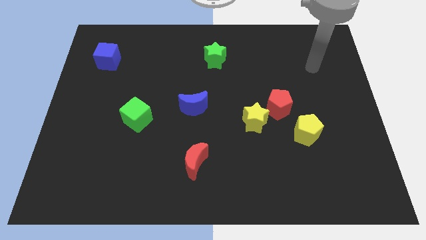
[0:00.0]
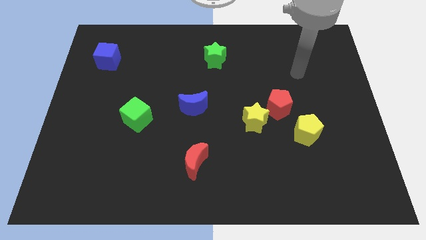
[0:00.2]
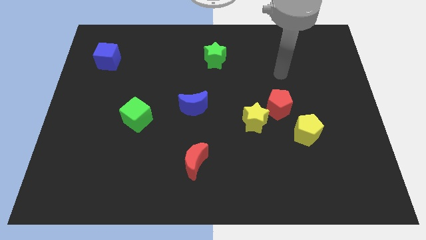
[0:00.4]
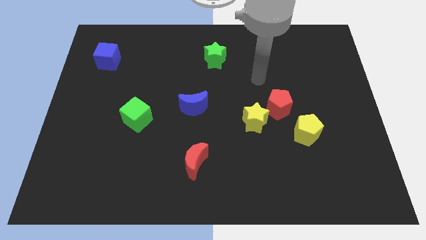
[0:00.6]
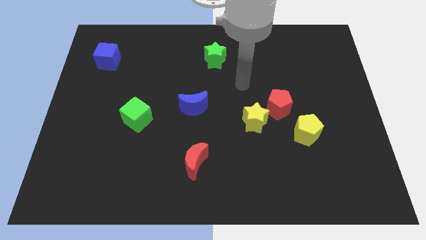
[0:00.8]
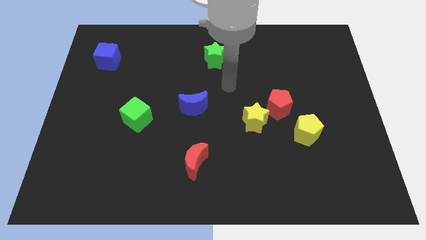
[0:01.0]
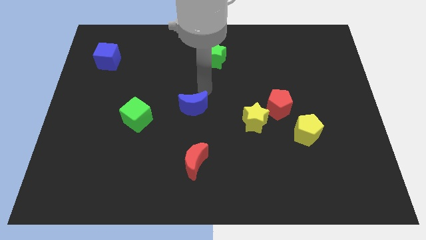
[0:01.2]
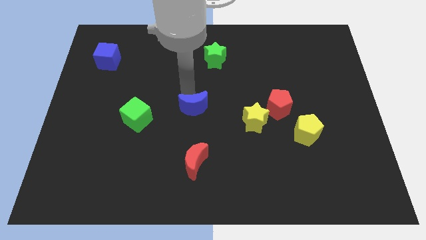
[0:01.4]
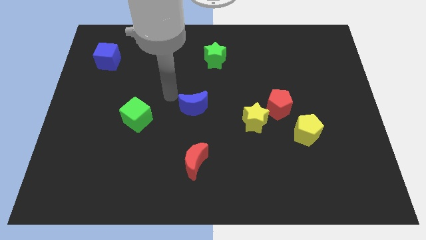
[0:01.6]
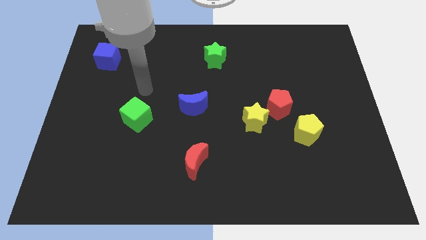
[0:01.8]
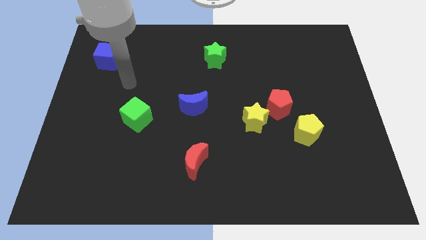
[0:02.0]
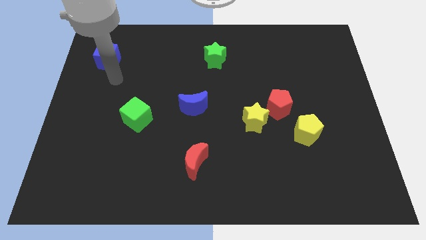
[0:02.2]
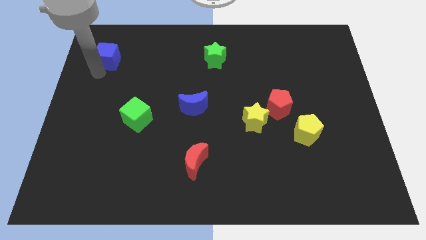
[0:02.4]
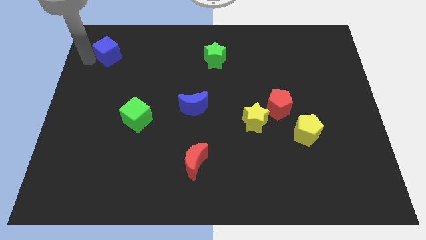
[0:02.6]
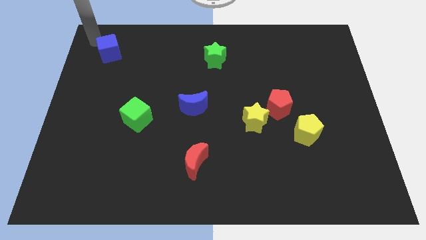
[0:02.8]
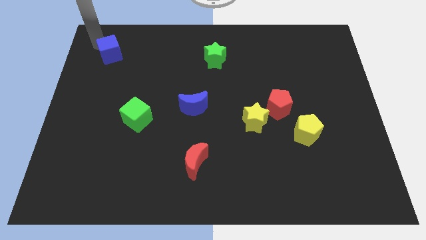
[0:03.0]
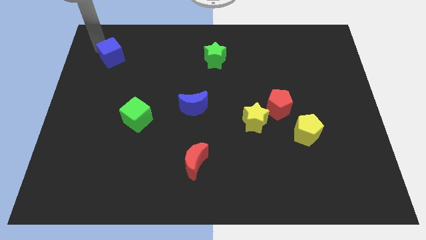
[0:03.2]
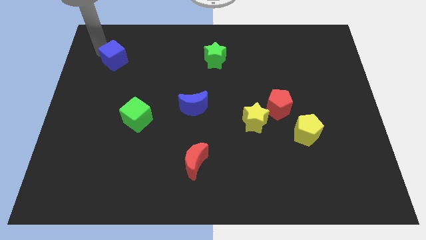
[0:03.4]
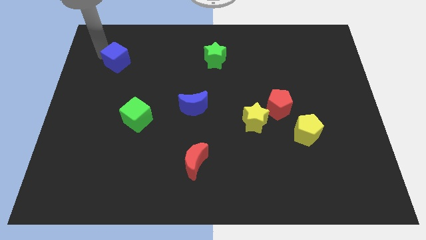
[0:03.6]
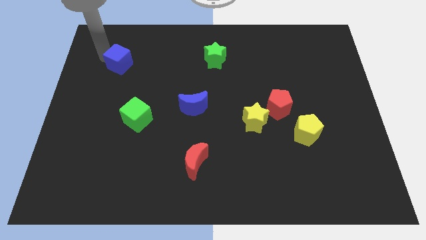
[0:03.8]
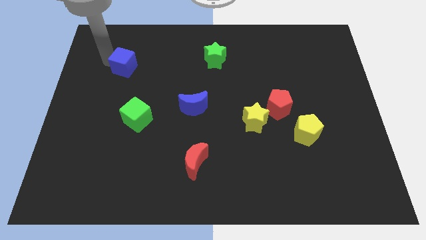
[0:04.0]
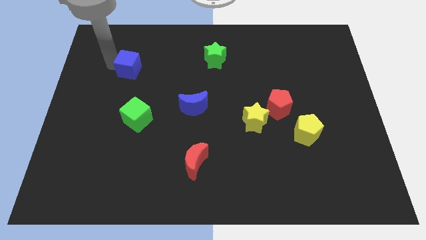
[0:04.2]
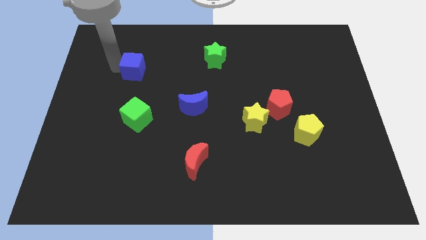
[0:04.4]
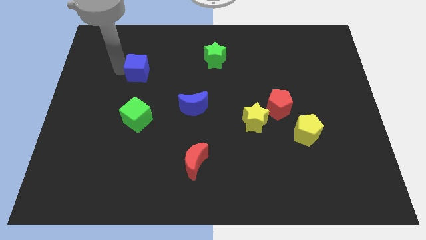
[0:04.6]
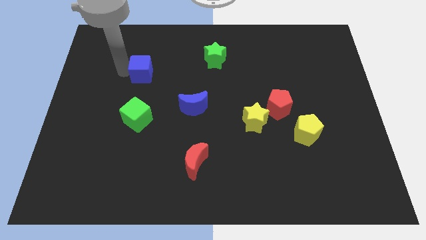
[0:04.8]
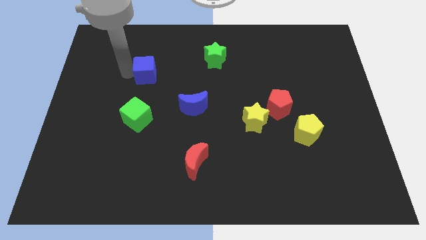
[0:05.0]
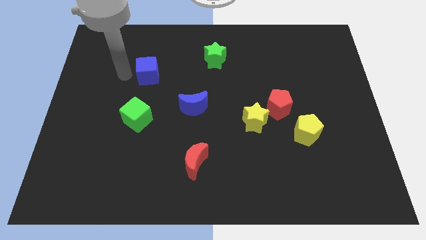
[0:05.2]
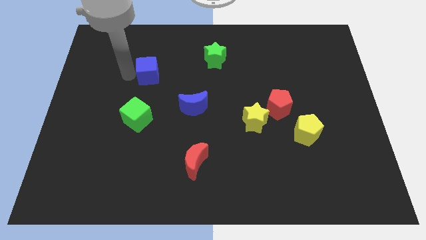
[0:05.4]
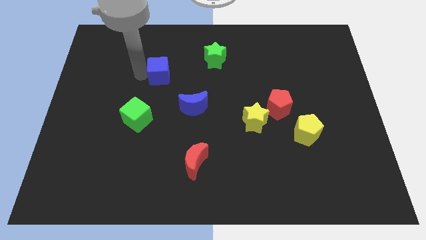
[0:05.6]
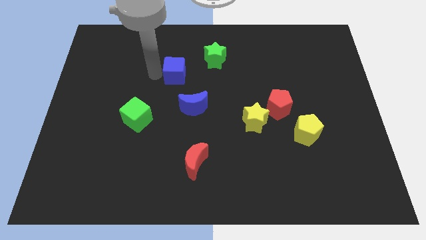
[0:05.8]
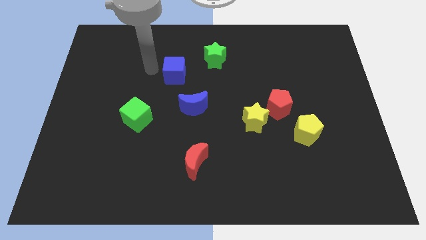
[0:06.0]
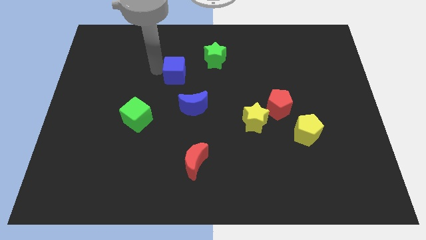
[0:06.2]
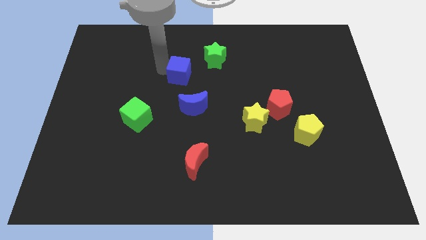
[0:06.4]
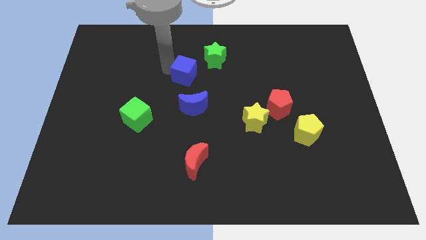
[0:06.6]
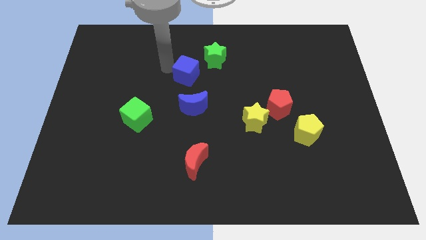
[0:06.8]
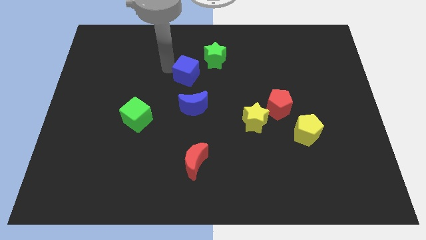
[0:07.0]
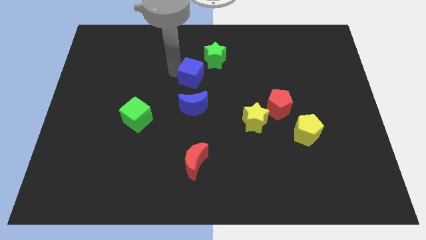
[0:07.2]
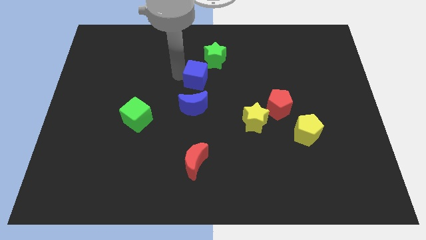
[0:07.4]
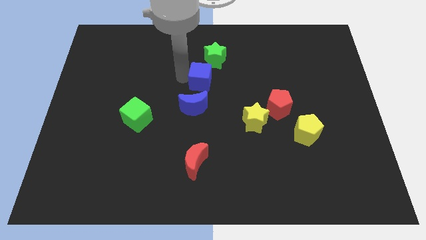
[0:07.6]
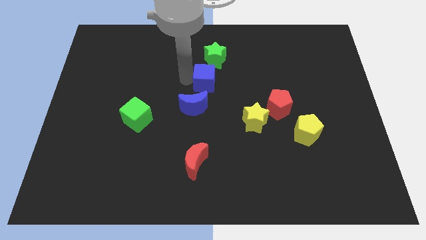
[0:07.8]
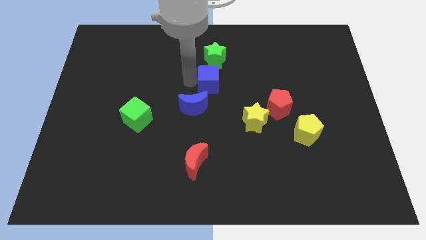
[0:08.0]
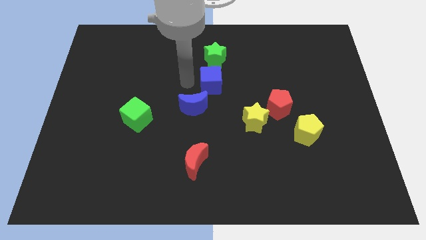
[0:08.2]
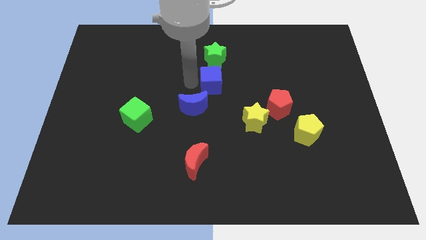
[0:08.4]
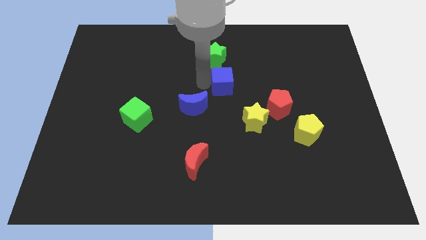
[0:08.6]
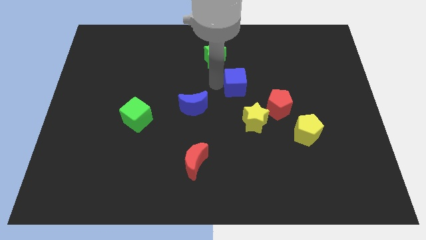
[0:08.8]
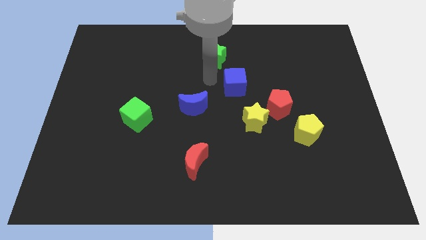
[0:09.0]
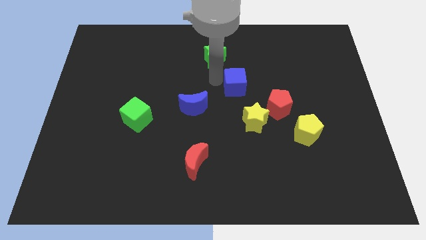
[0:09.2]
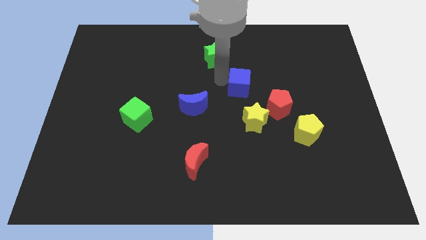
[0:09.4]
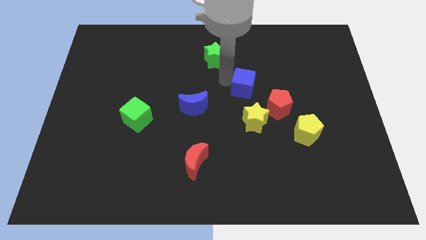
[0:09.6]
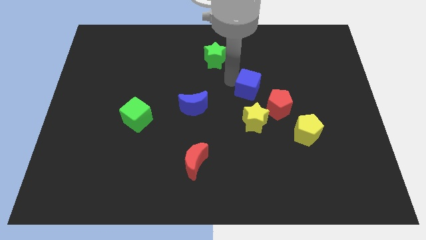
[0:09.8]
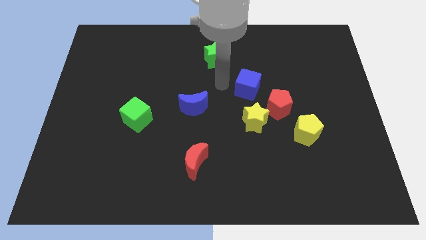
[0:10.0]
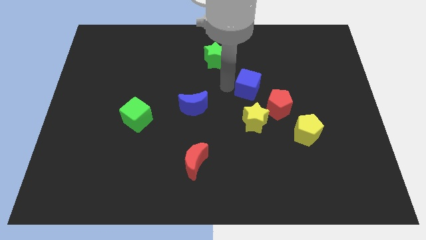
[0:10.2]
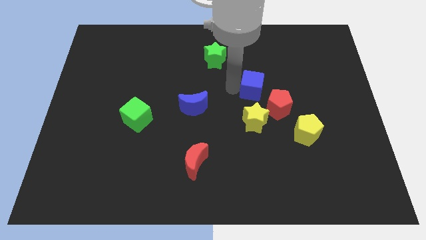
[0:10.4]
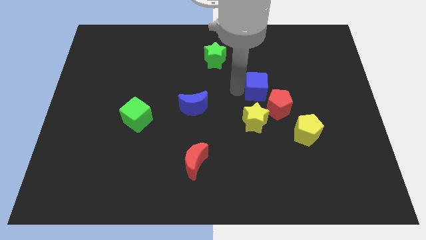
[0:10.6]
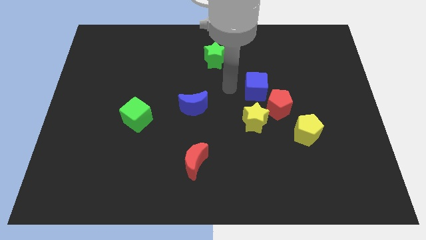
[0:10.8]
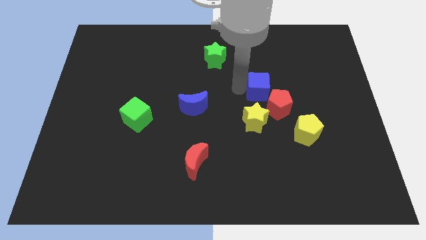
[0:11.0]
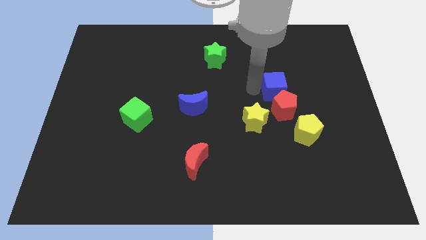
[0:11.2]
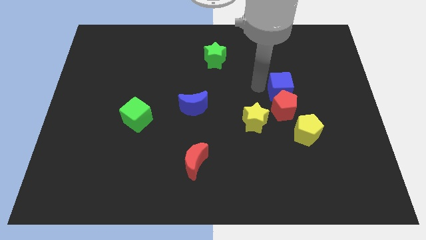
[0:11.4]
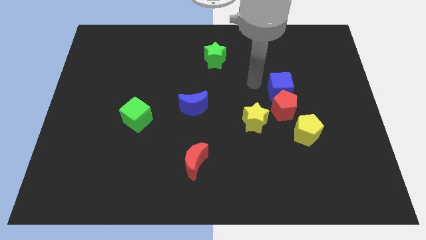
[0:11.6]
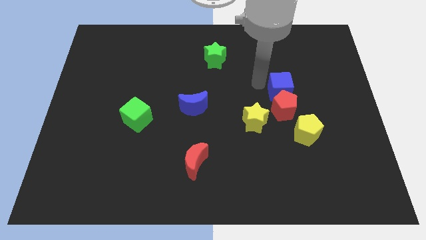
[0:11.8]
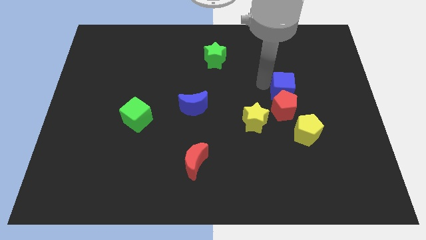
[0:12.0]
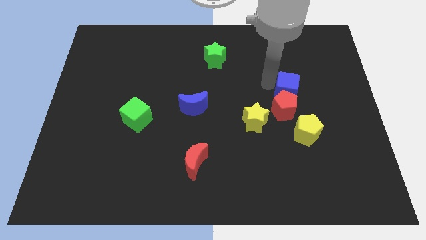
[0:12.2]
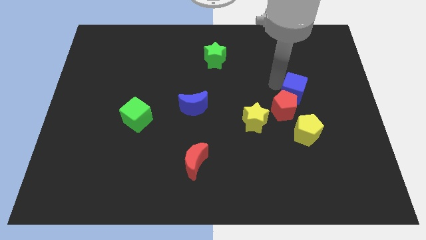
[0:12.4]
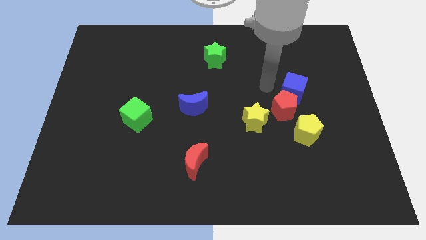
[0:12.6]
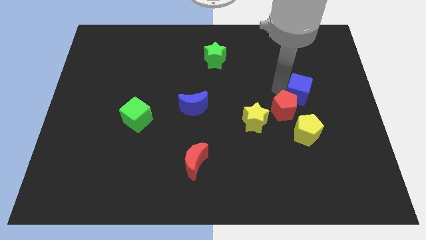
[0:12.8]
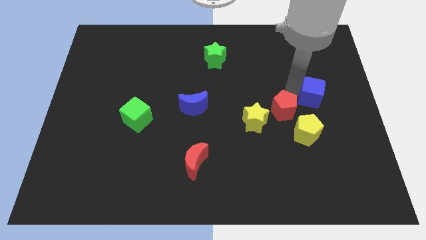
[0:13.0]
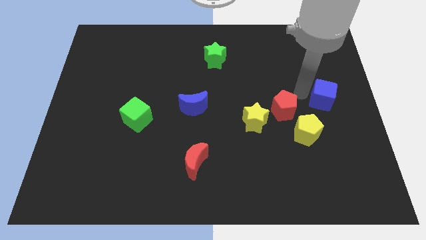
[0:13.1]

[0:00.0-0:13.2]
put the blue cube to the right side of the board
